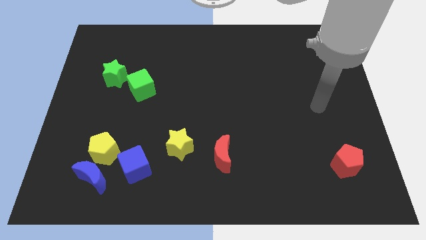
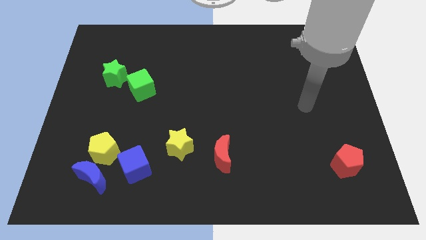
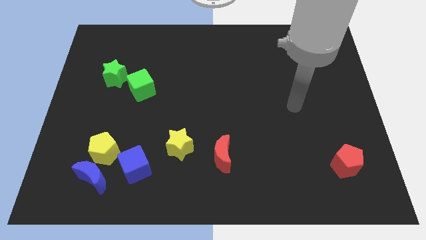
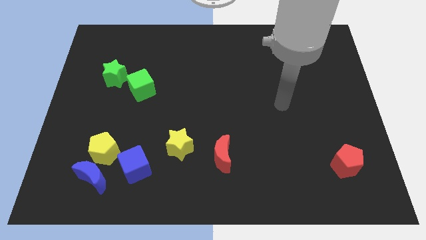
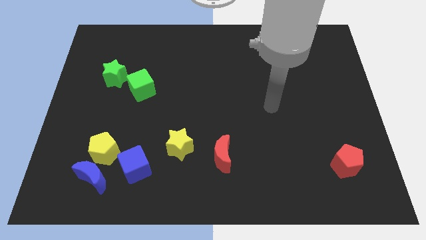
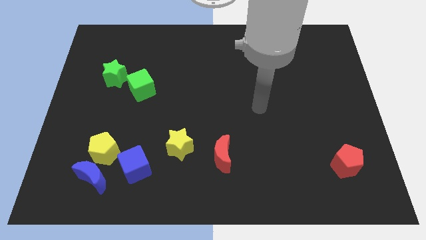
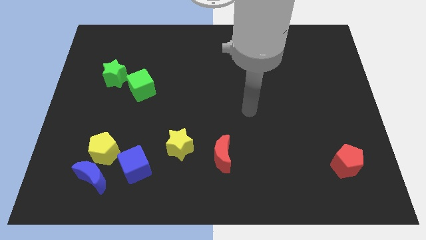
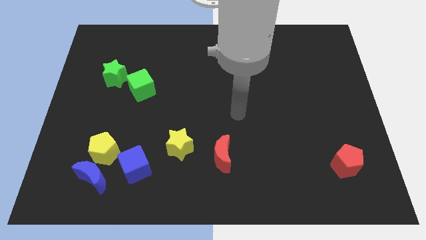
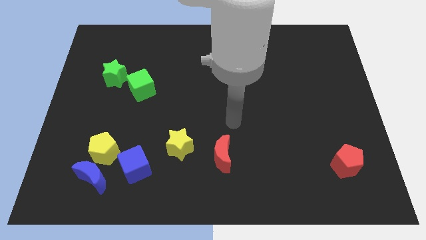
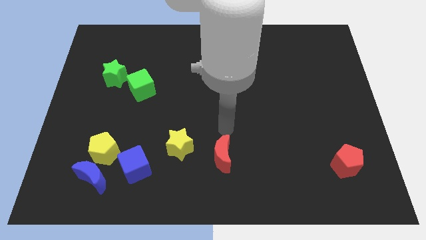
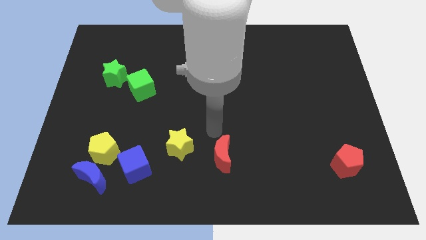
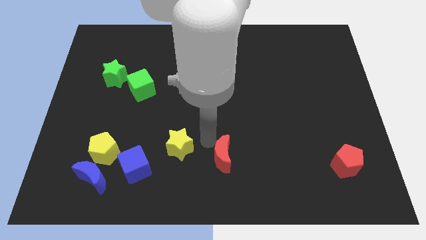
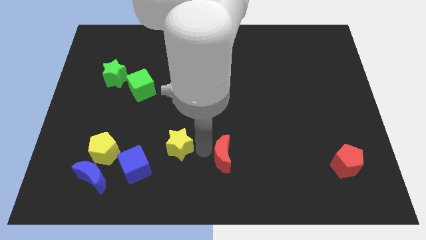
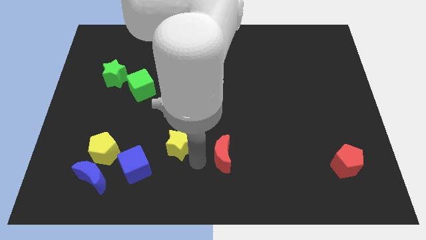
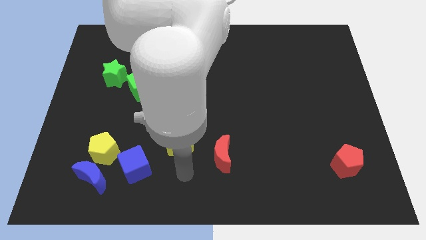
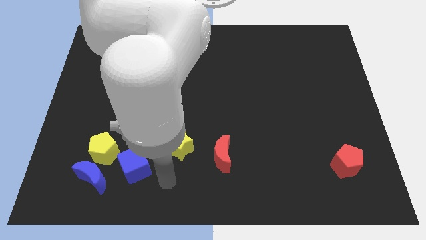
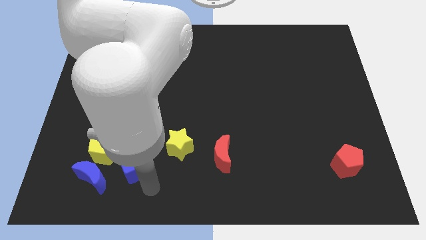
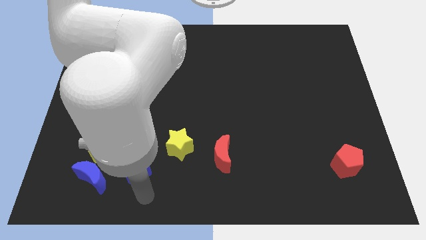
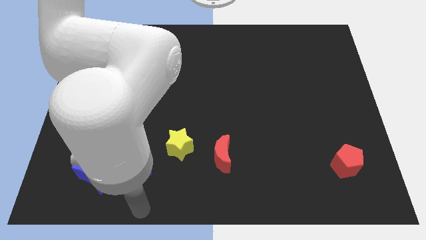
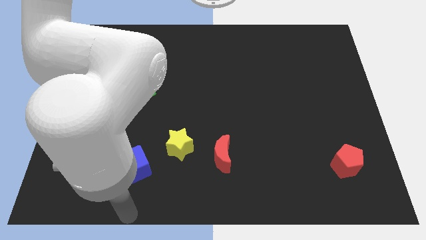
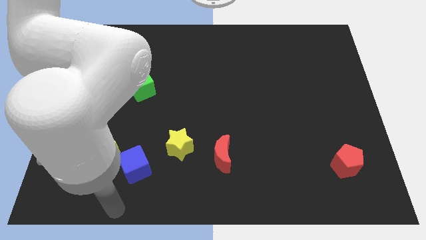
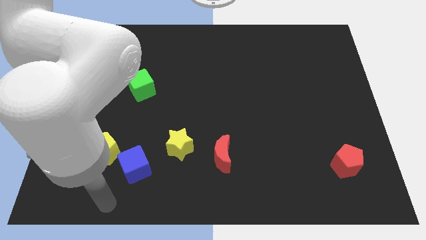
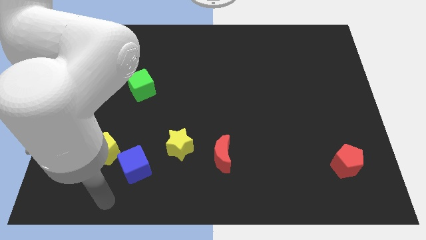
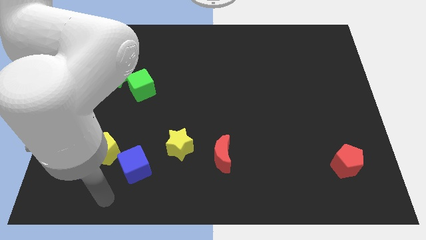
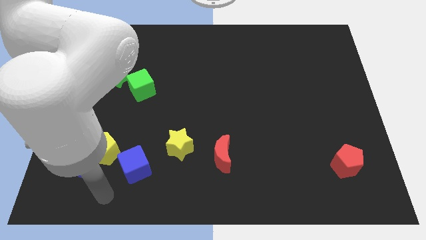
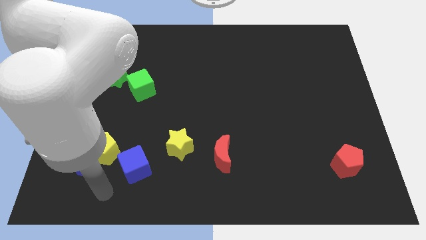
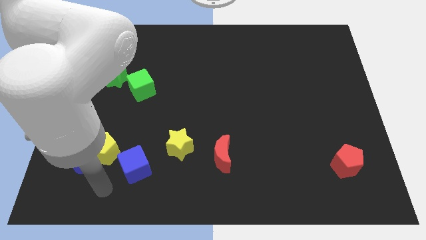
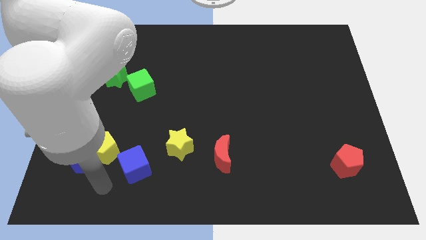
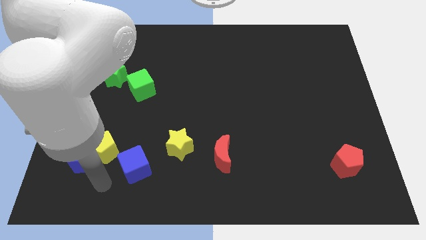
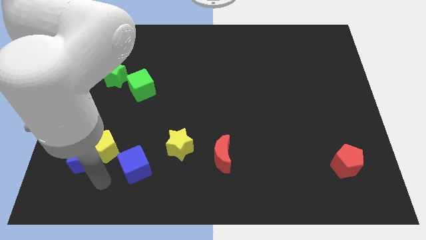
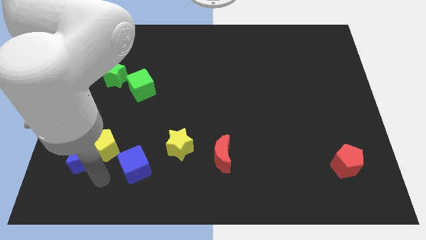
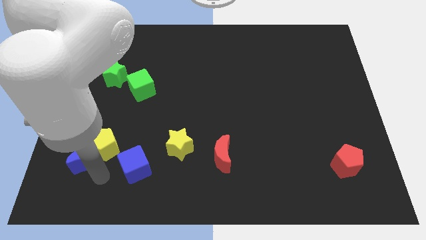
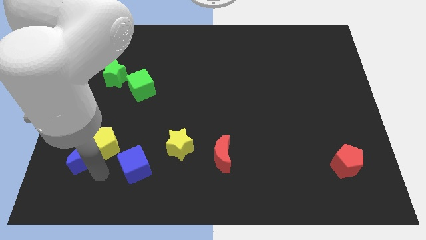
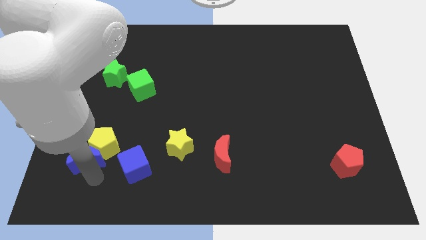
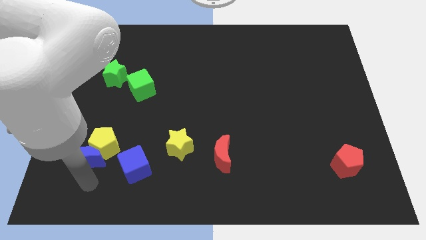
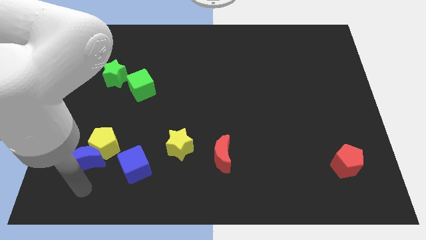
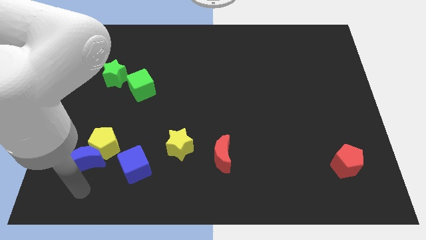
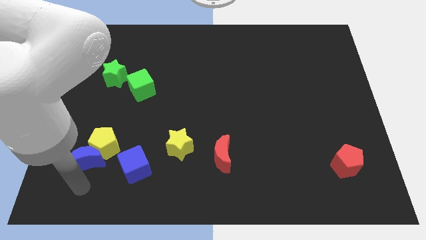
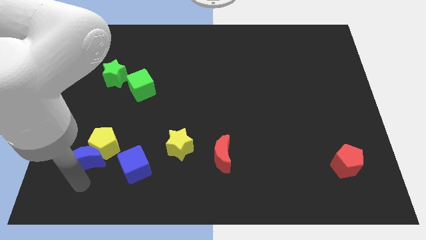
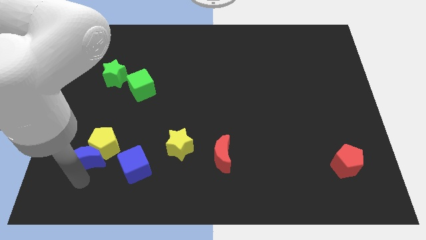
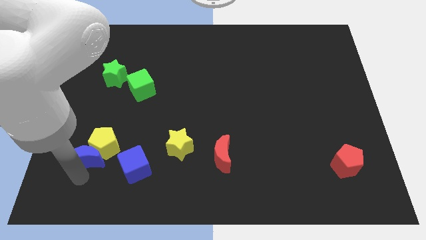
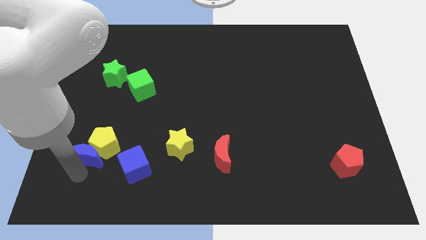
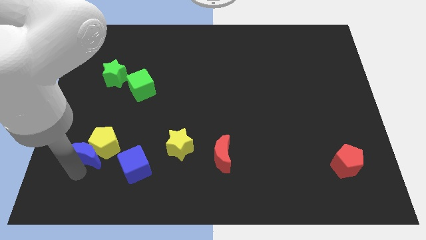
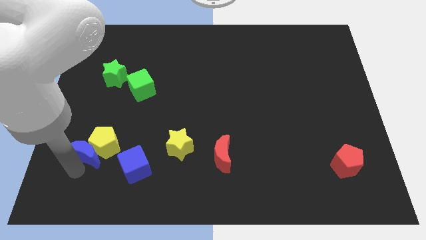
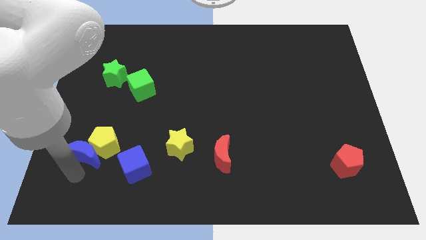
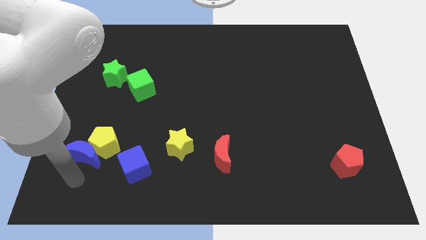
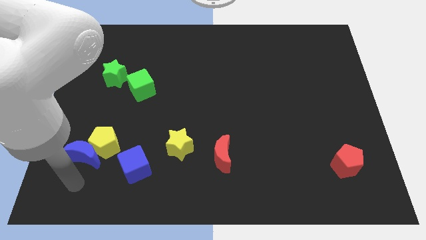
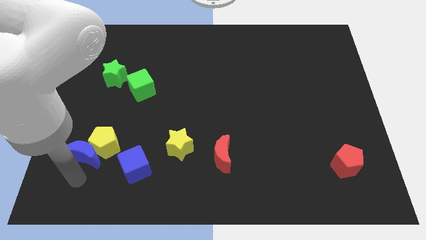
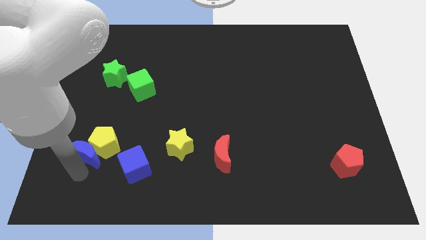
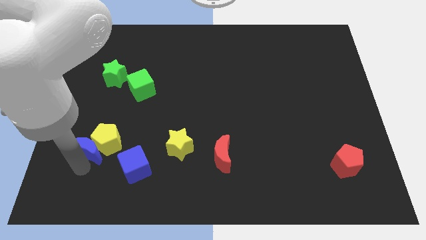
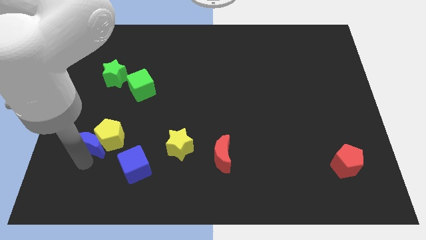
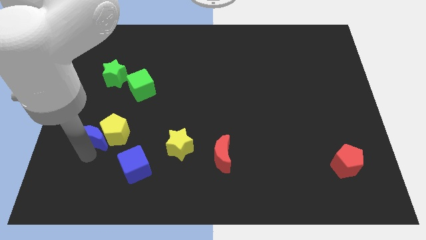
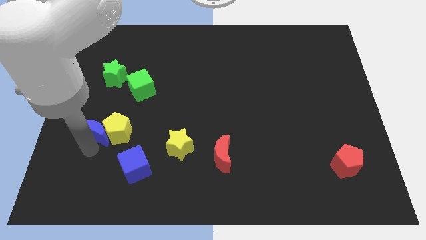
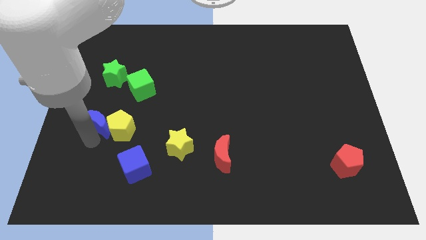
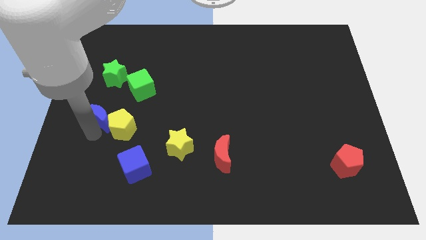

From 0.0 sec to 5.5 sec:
move the blue moon to the bottom left of the green cube

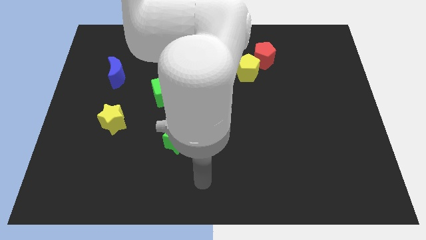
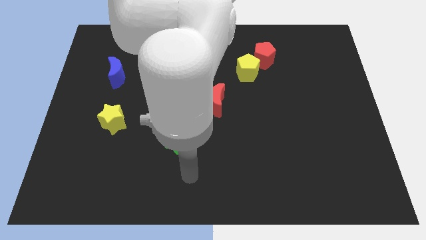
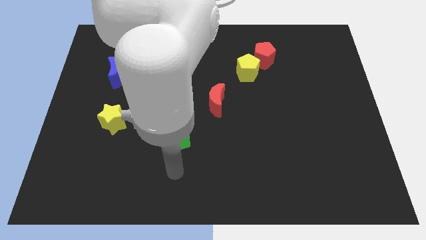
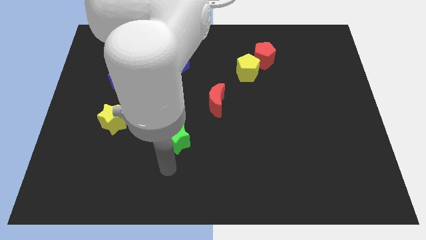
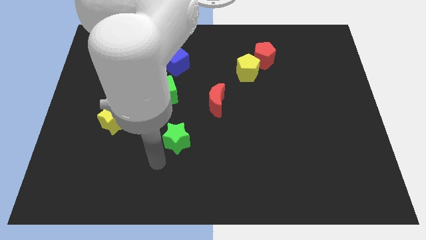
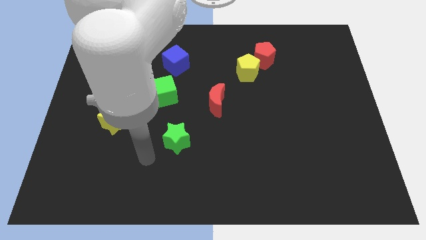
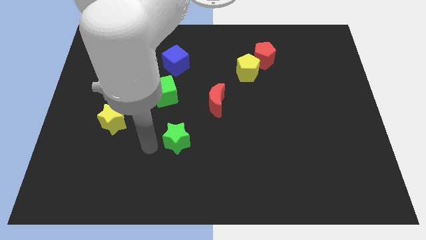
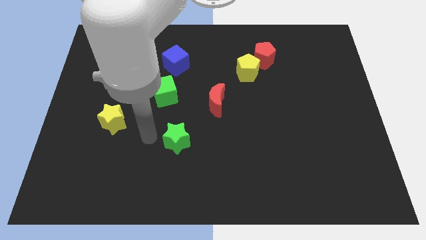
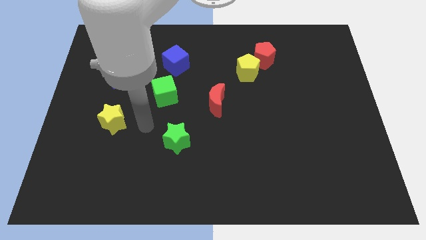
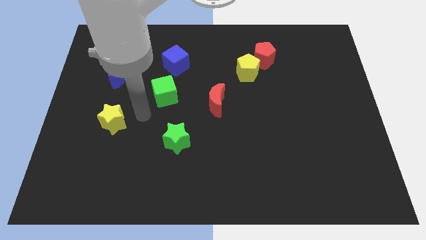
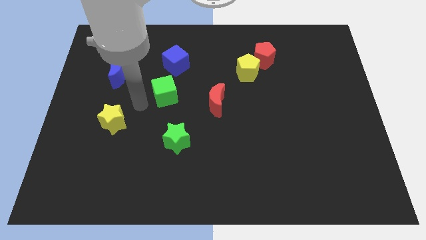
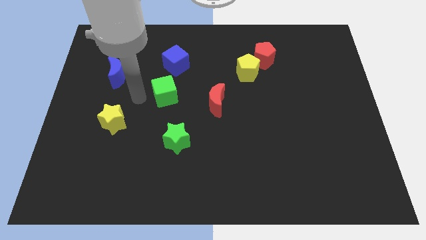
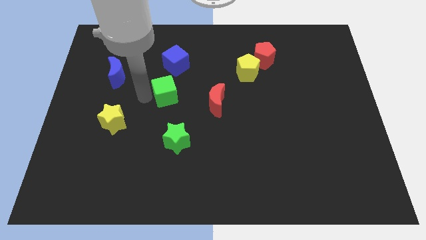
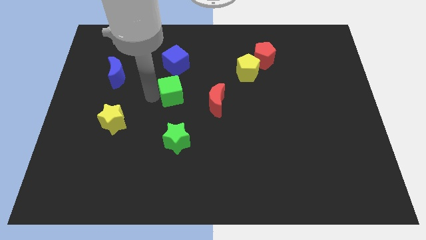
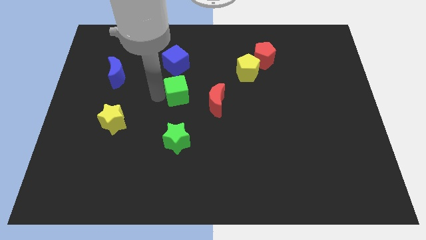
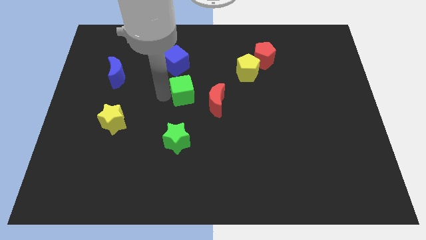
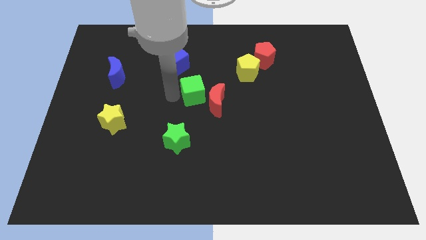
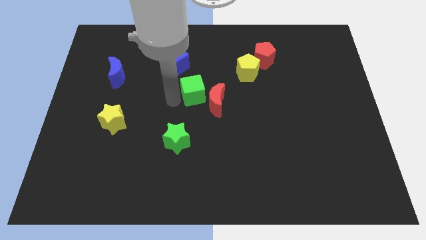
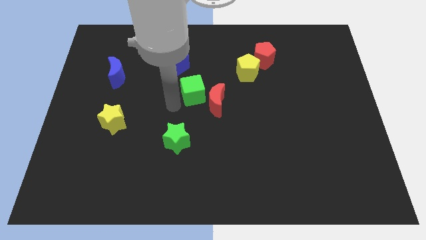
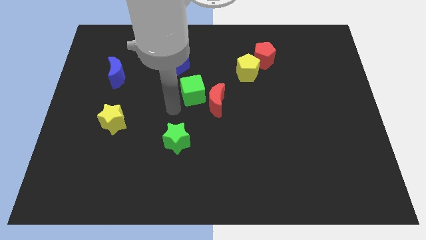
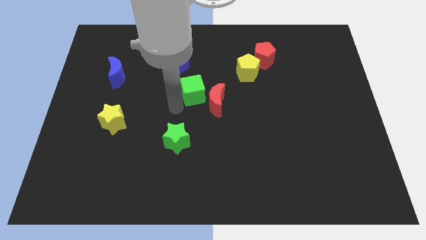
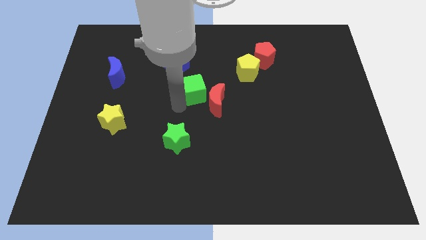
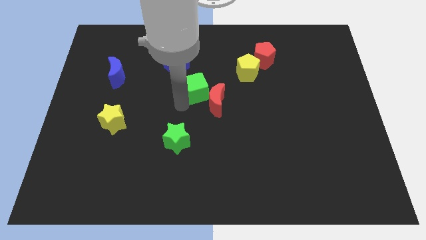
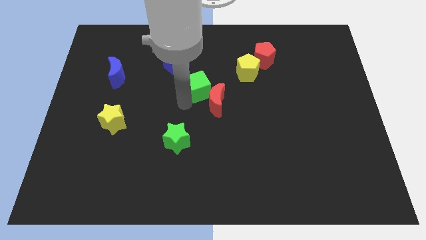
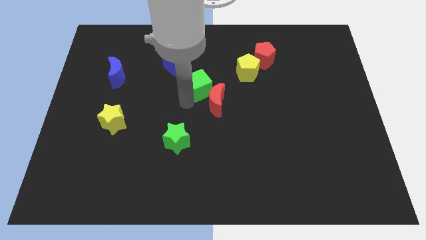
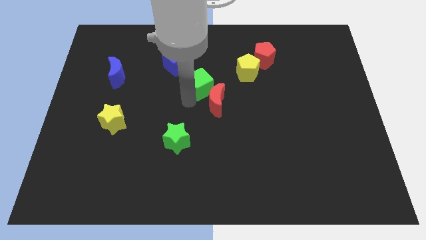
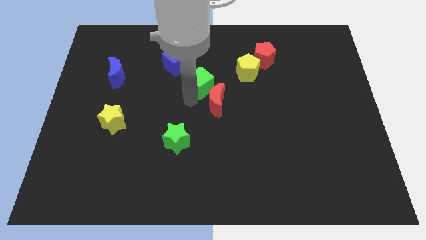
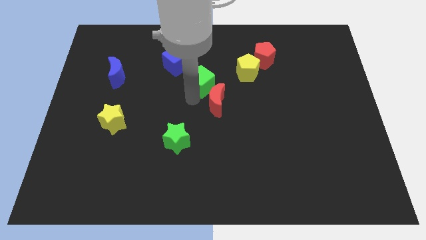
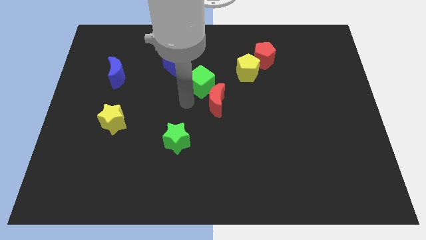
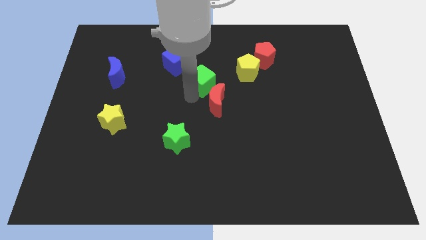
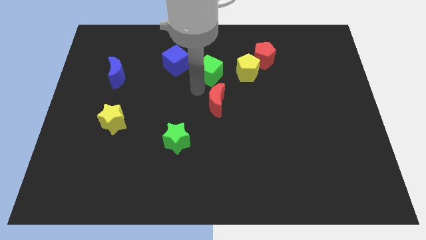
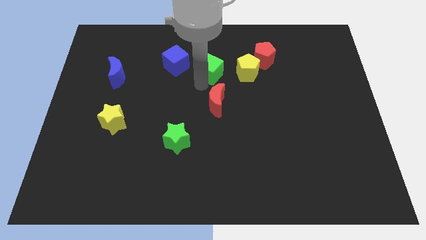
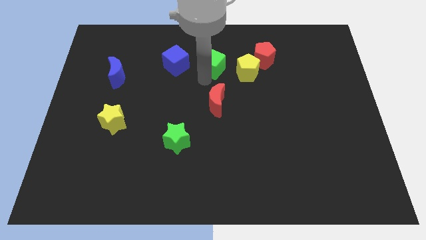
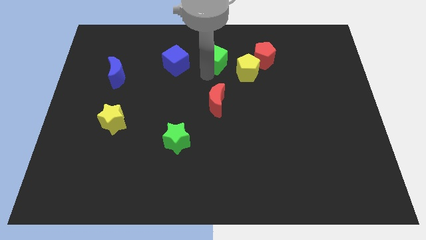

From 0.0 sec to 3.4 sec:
move the green cube diagonally up and to the left of the yellow pentagon
